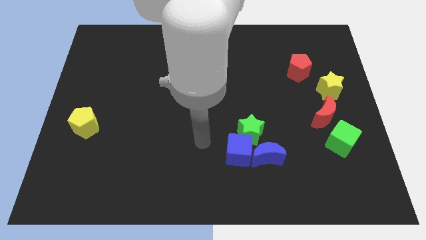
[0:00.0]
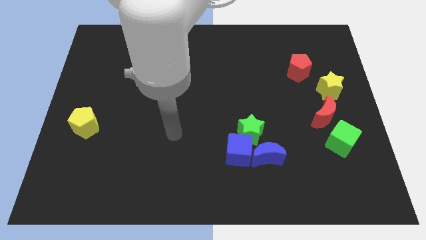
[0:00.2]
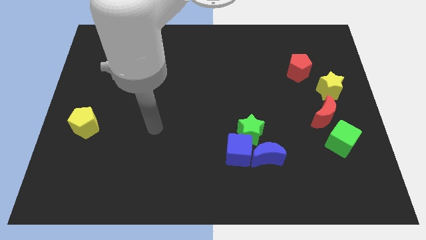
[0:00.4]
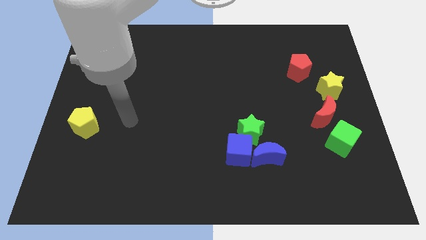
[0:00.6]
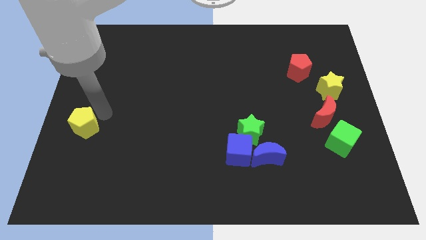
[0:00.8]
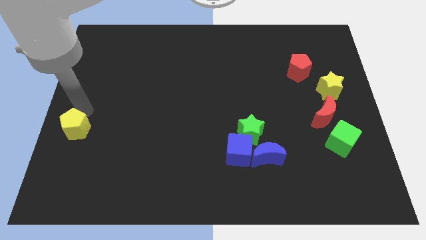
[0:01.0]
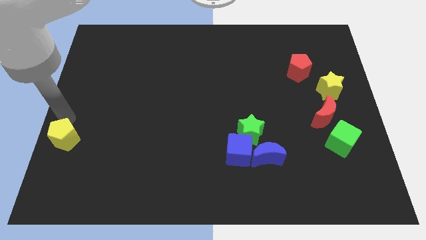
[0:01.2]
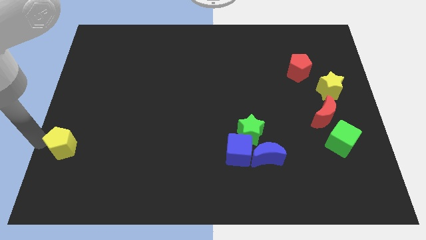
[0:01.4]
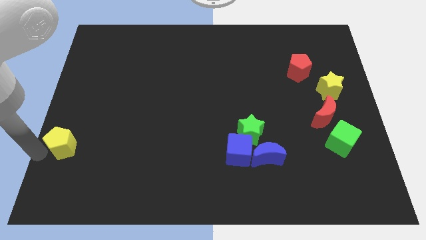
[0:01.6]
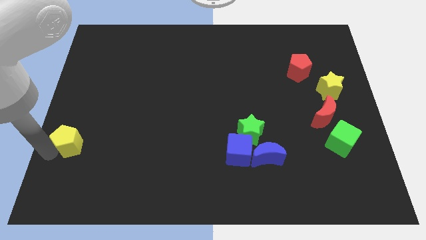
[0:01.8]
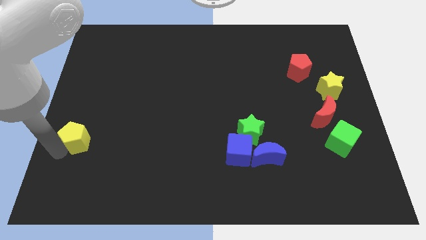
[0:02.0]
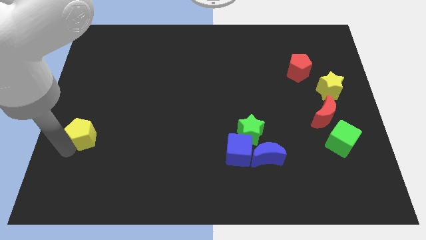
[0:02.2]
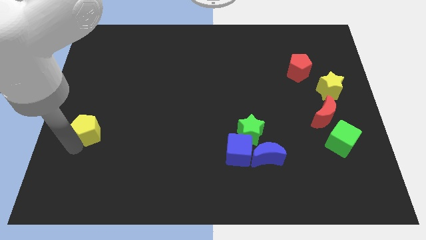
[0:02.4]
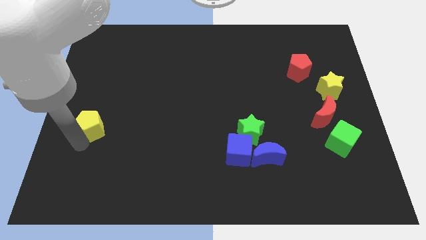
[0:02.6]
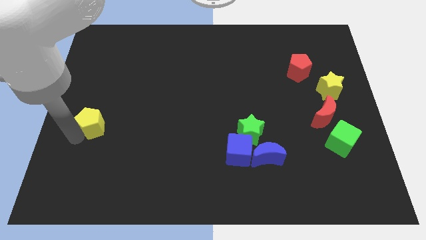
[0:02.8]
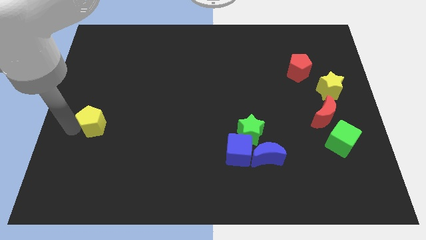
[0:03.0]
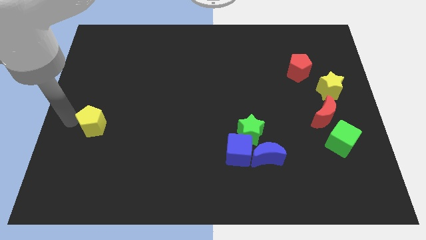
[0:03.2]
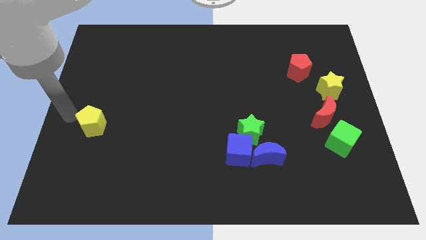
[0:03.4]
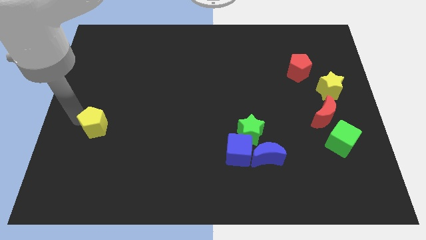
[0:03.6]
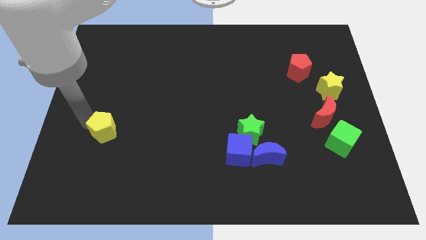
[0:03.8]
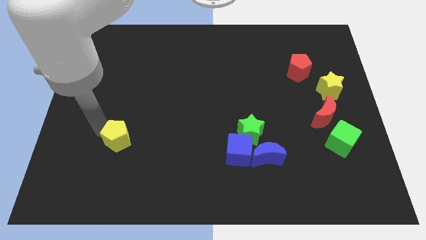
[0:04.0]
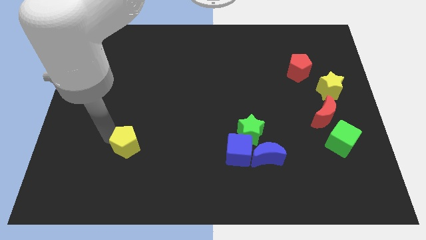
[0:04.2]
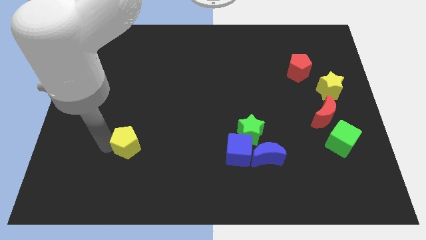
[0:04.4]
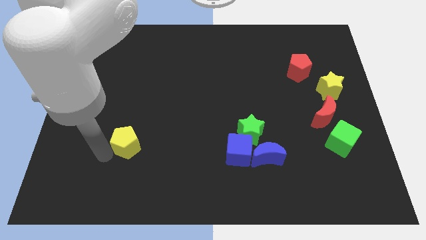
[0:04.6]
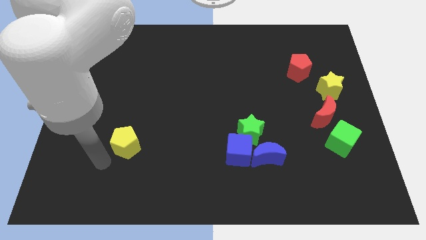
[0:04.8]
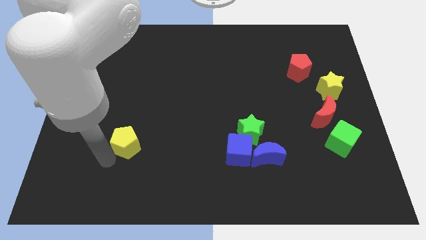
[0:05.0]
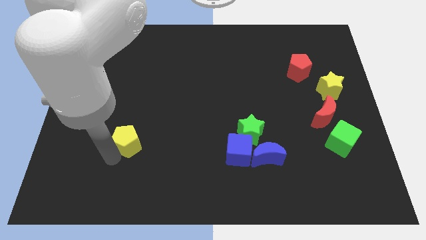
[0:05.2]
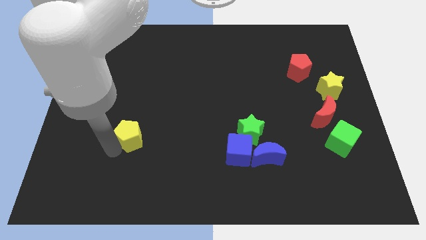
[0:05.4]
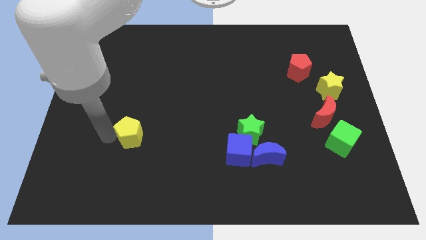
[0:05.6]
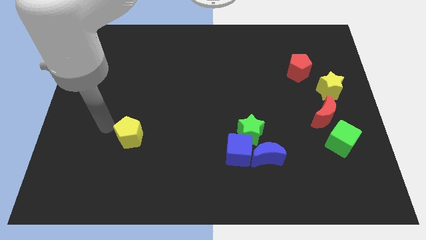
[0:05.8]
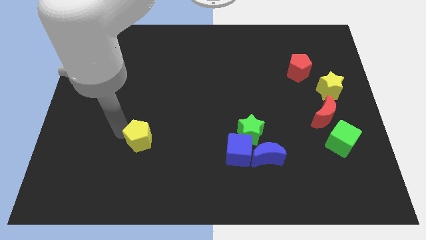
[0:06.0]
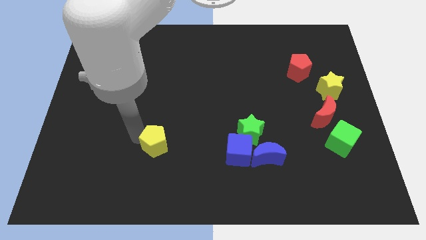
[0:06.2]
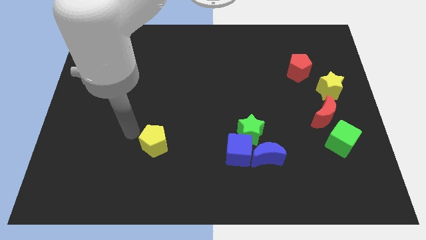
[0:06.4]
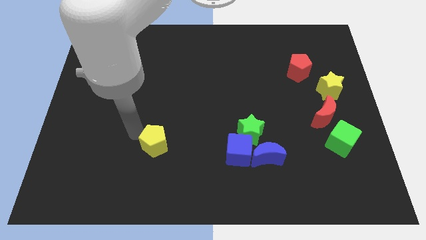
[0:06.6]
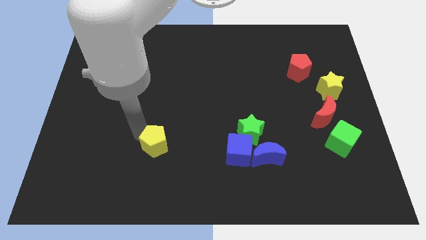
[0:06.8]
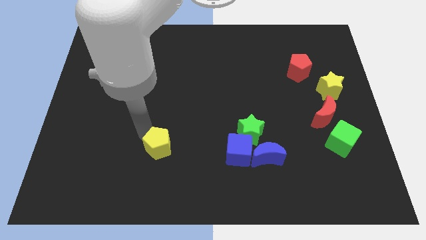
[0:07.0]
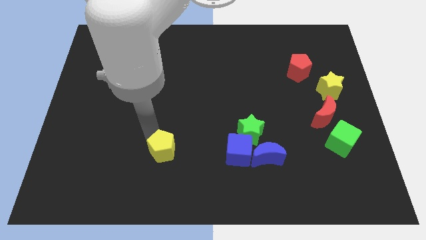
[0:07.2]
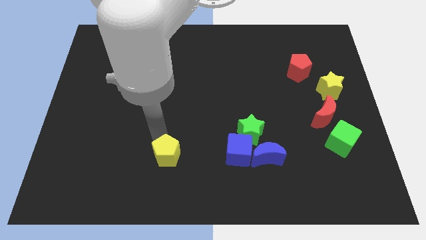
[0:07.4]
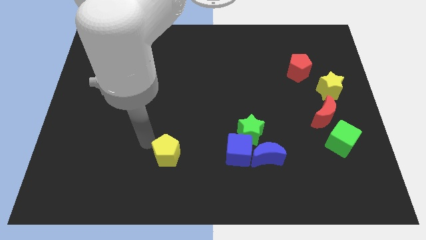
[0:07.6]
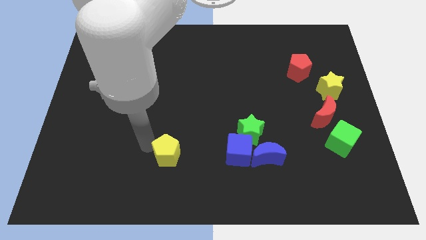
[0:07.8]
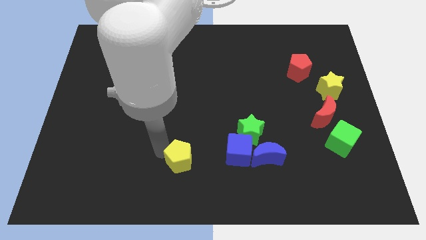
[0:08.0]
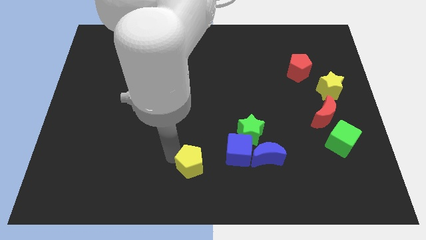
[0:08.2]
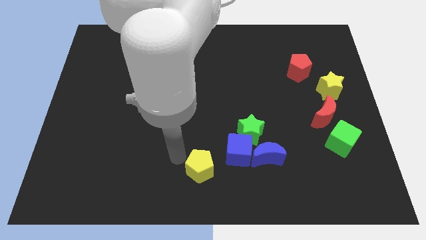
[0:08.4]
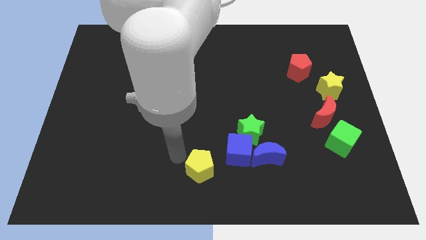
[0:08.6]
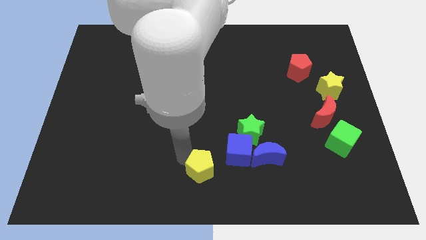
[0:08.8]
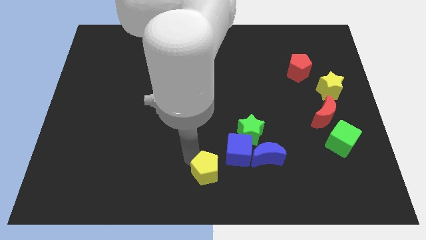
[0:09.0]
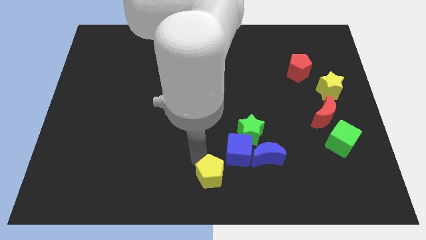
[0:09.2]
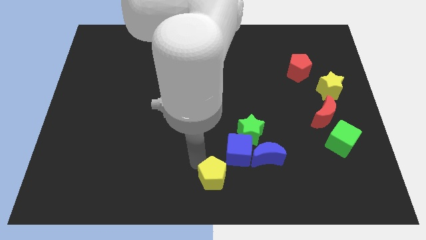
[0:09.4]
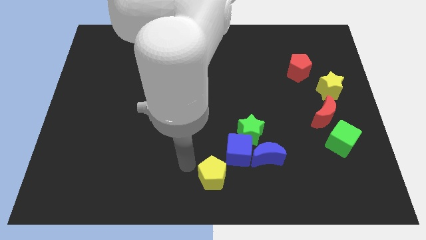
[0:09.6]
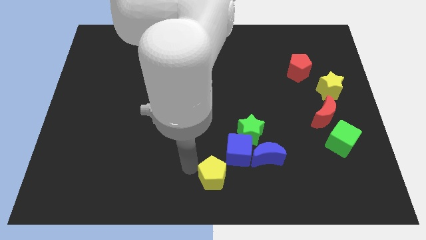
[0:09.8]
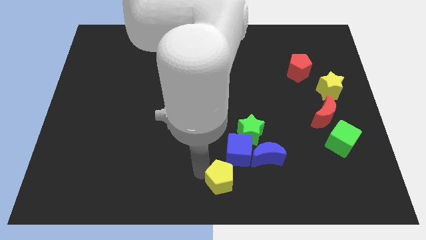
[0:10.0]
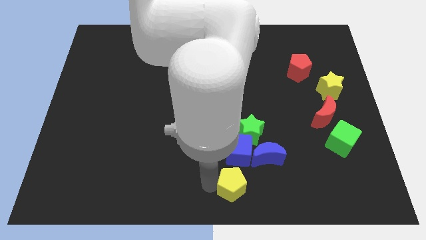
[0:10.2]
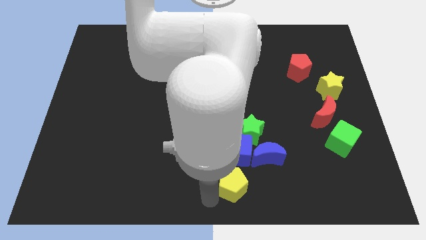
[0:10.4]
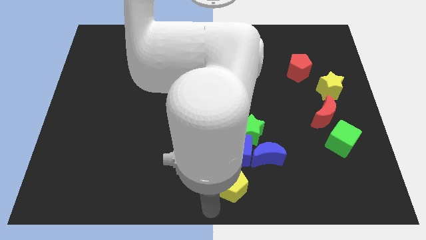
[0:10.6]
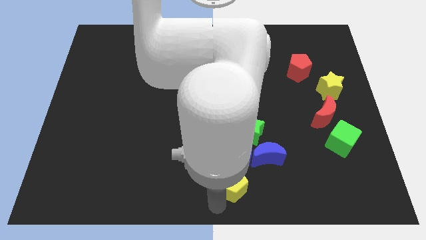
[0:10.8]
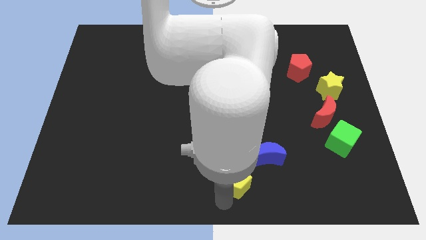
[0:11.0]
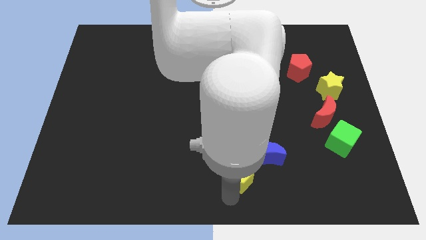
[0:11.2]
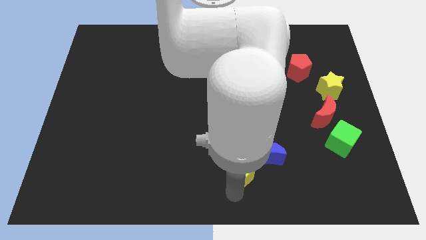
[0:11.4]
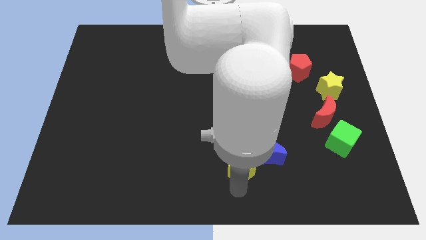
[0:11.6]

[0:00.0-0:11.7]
slide the yellow pentagon to the blue moon
